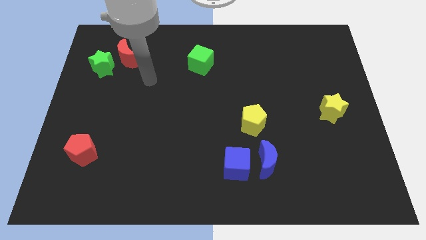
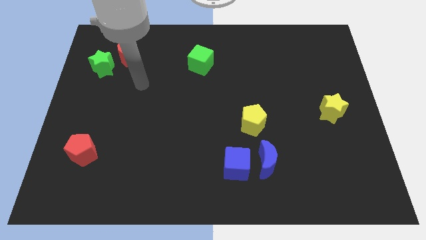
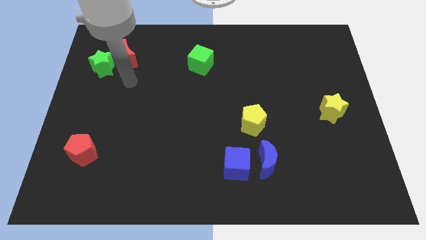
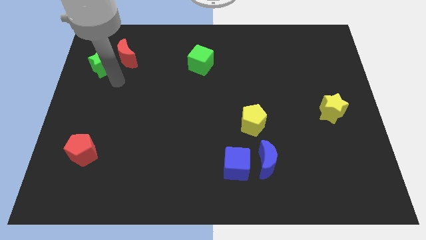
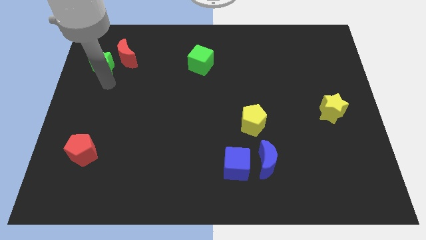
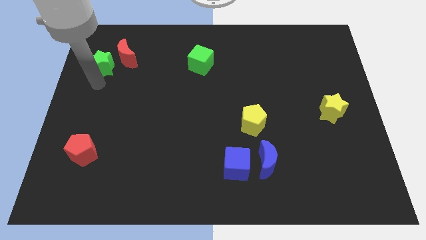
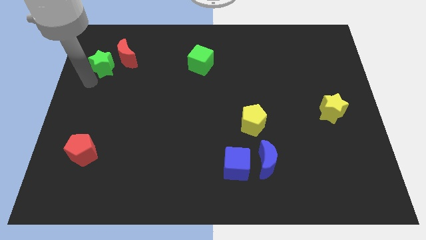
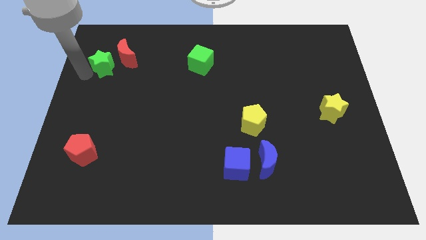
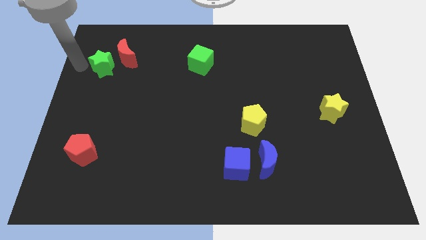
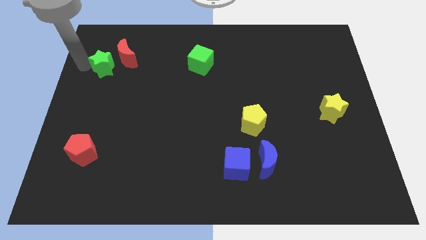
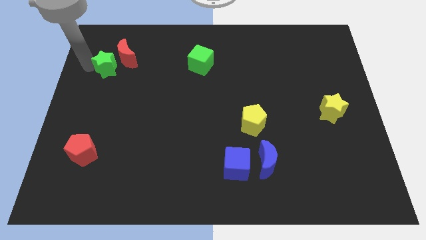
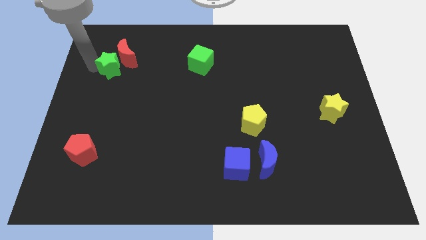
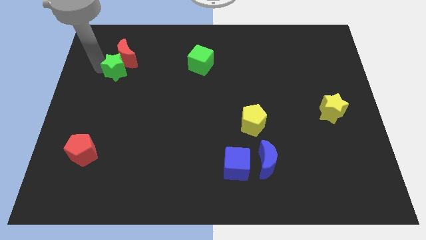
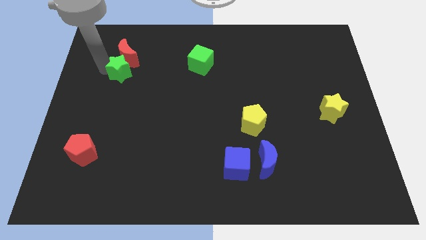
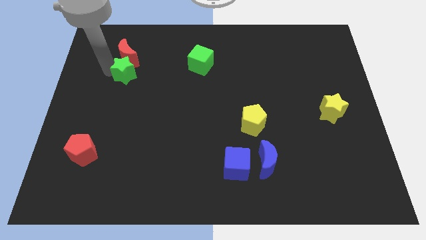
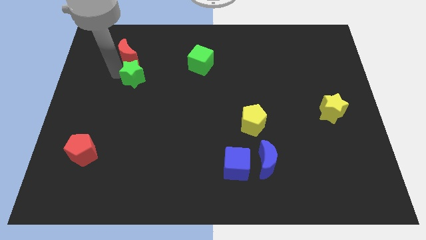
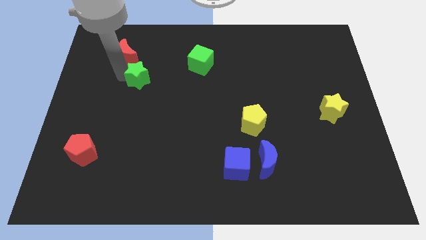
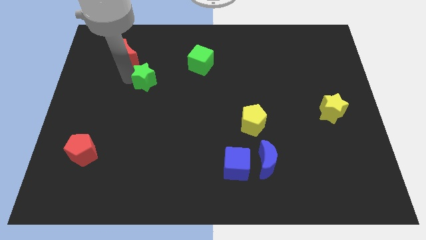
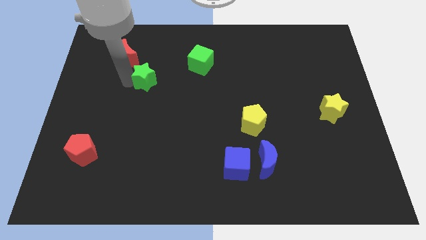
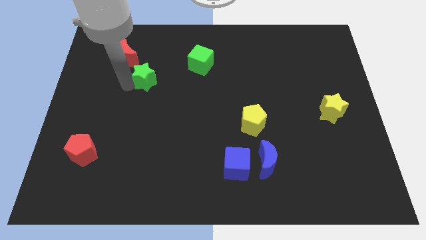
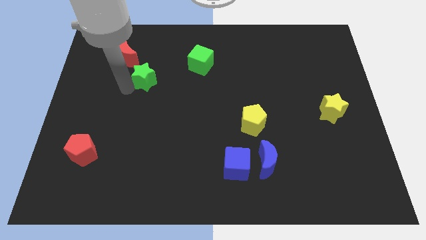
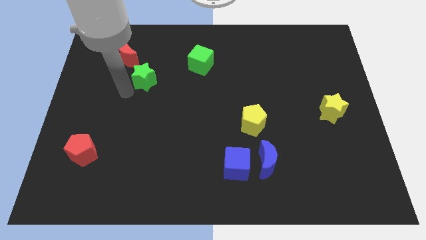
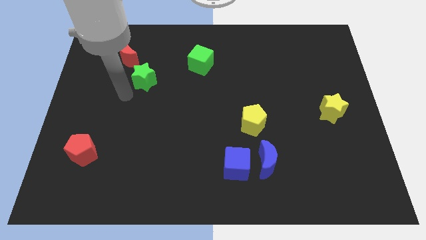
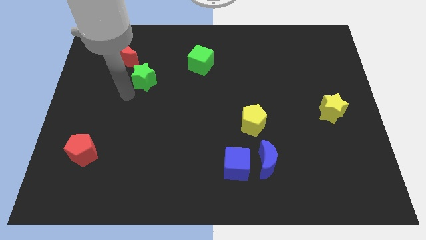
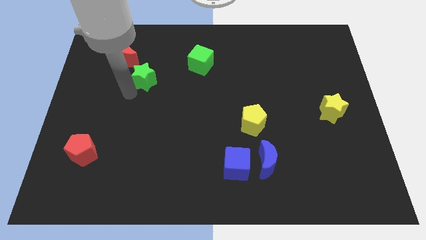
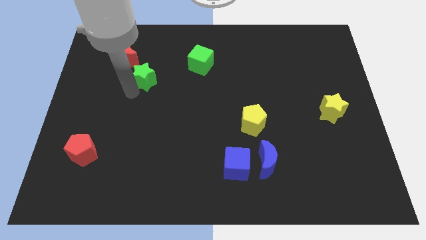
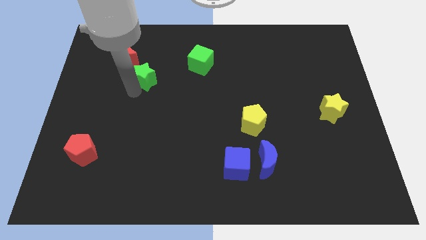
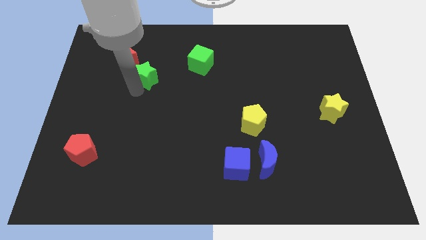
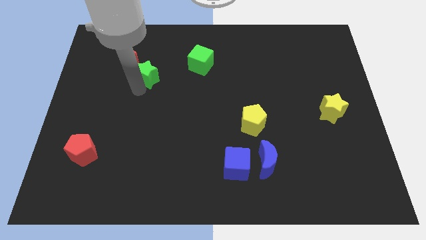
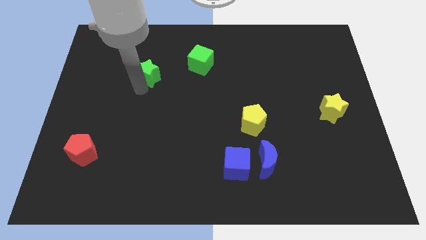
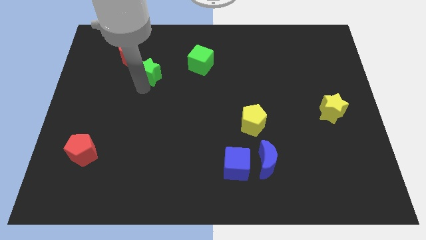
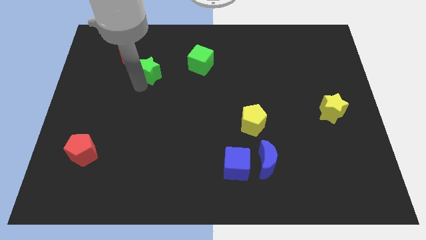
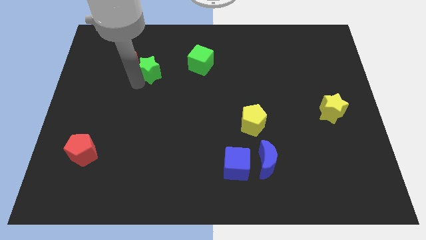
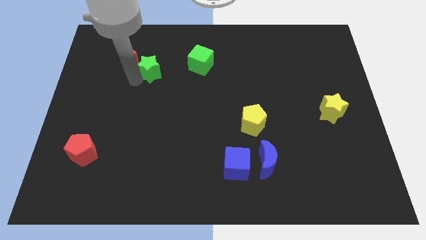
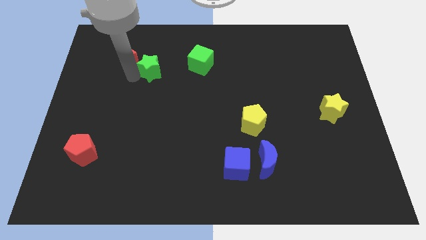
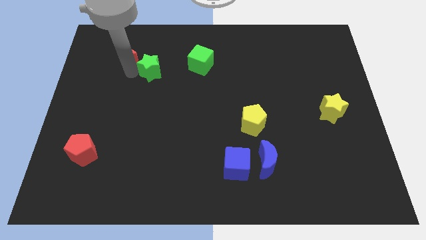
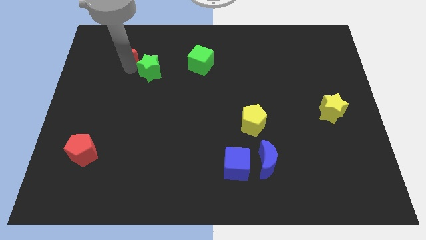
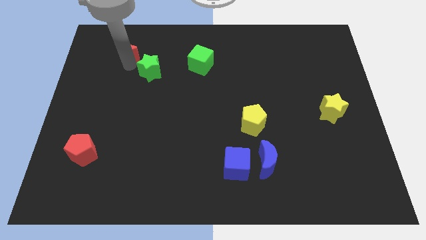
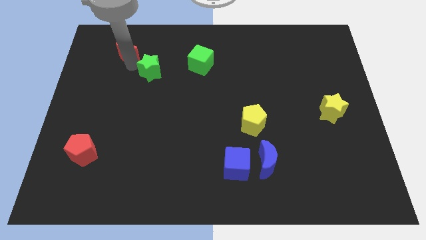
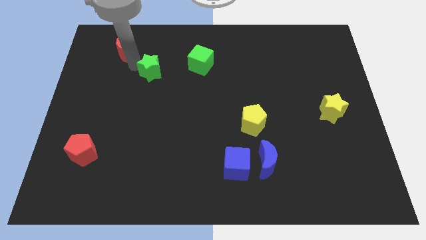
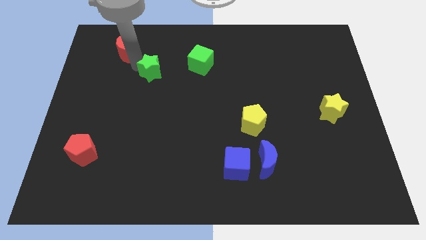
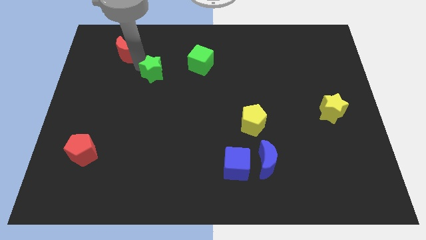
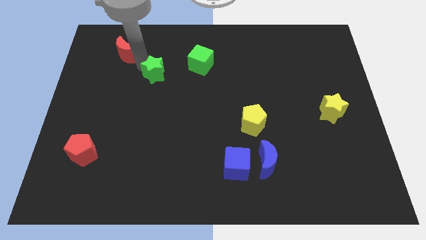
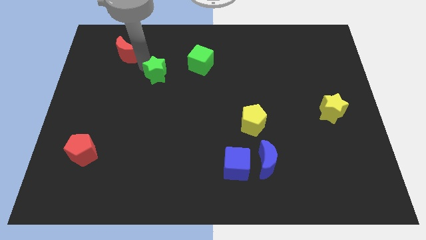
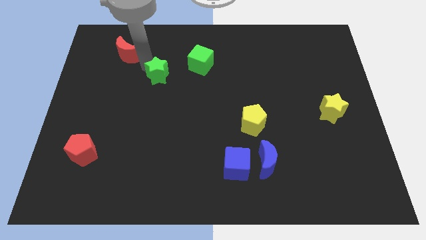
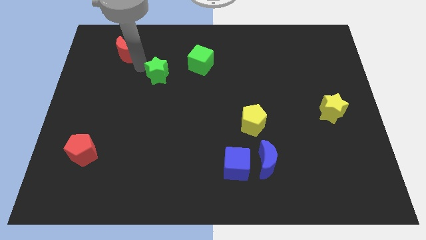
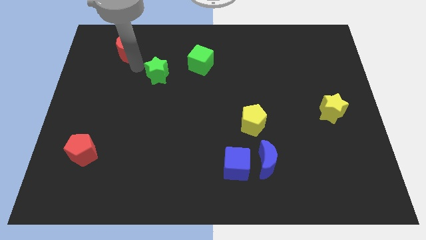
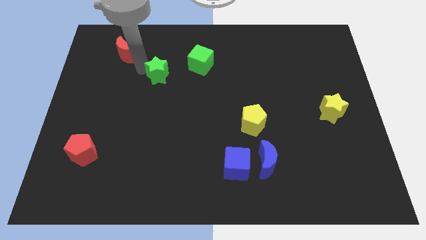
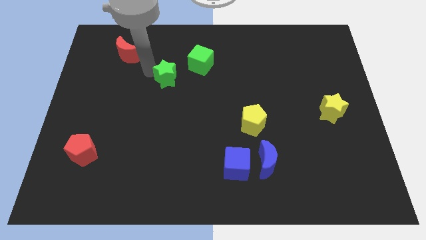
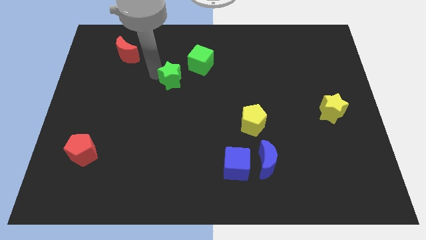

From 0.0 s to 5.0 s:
move the green star to the middle of the board

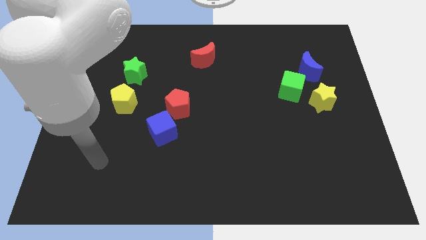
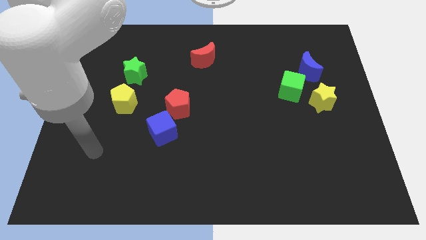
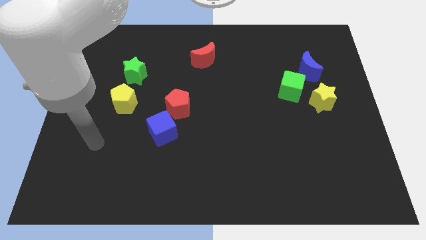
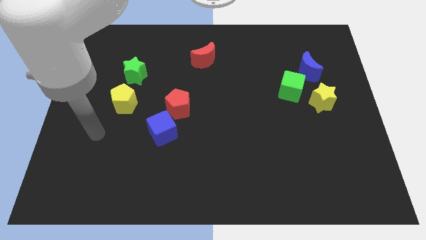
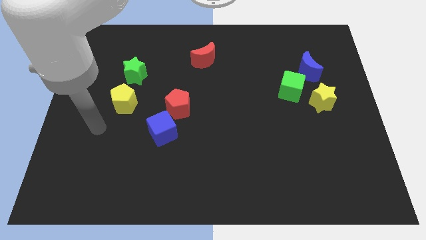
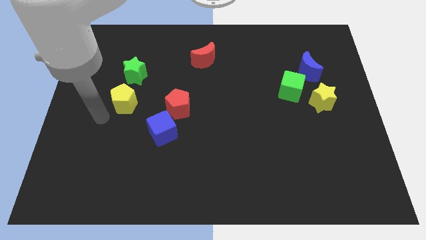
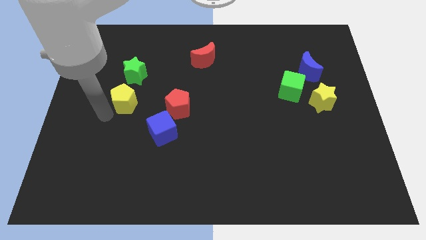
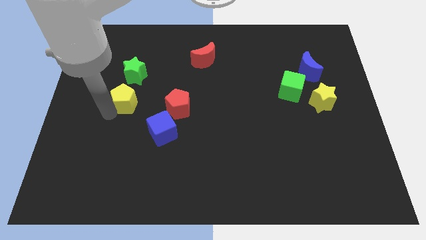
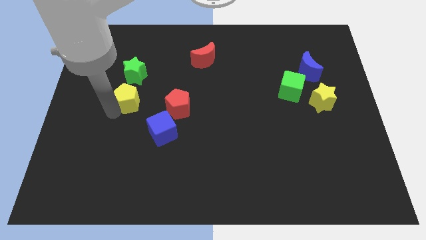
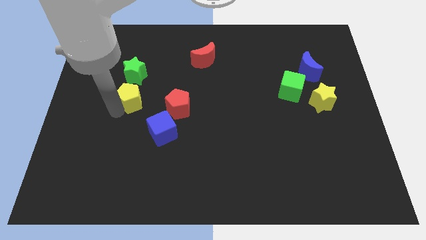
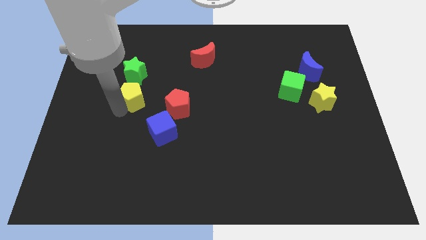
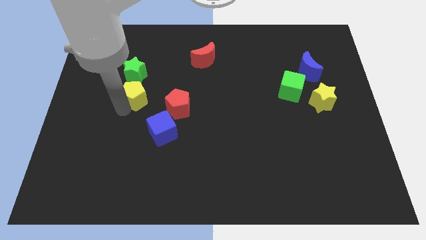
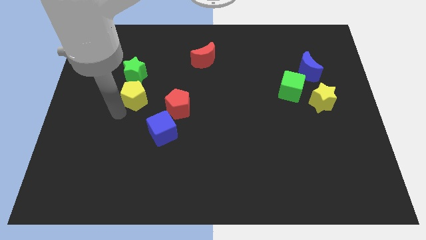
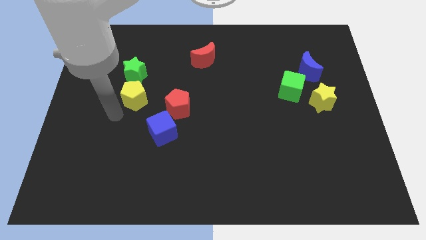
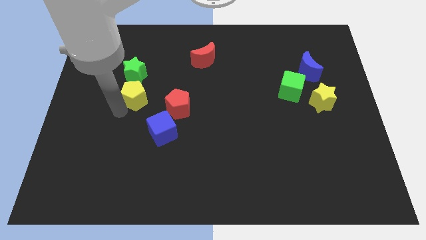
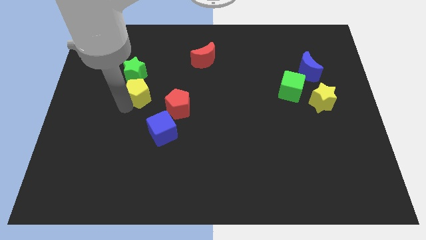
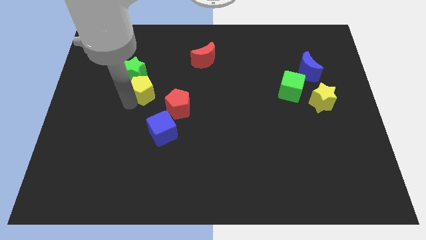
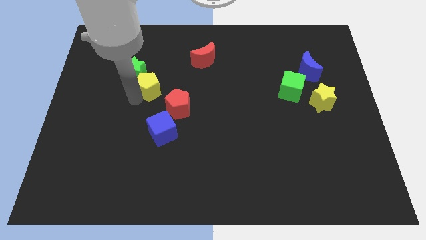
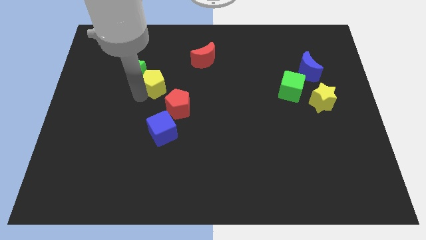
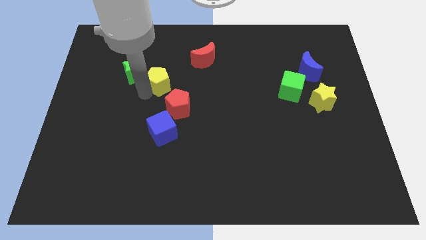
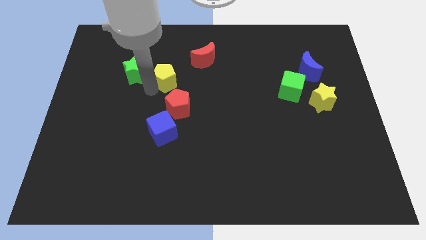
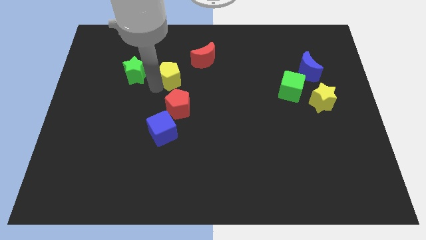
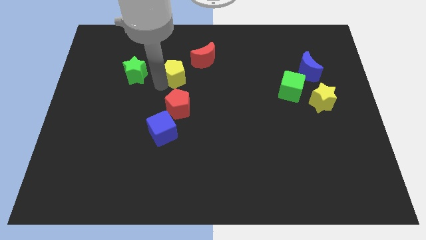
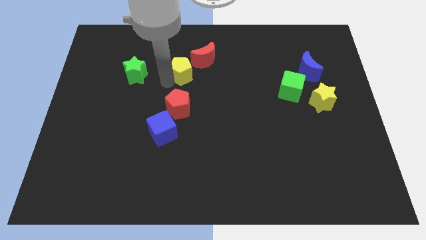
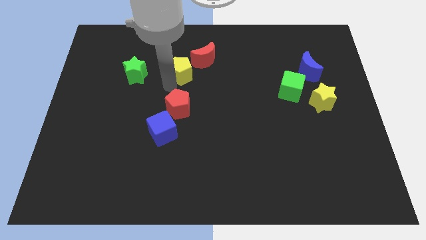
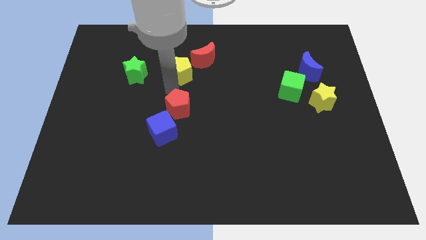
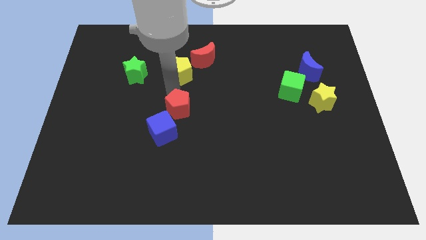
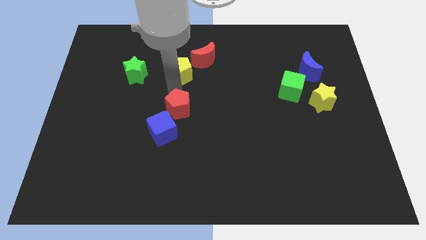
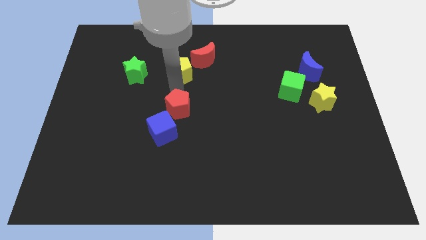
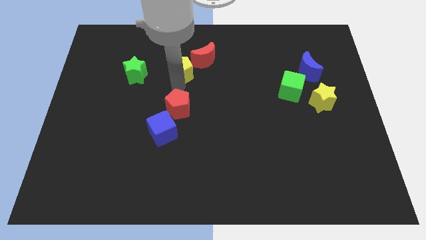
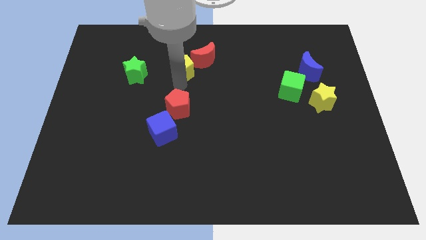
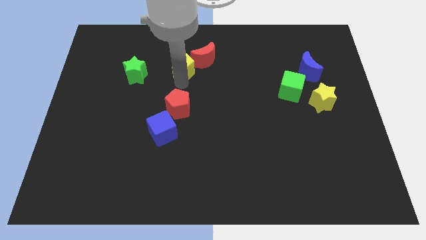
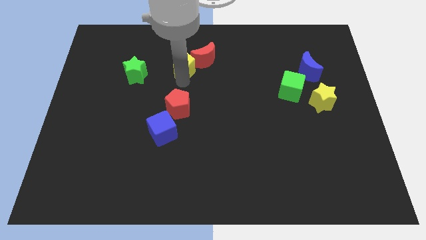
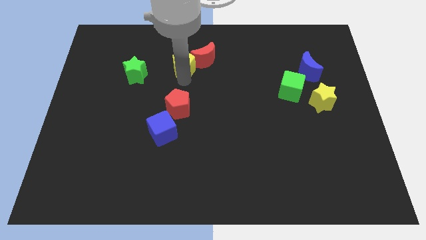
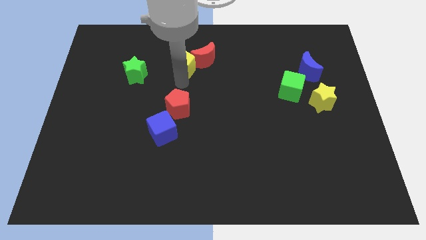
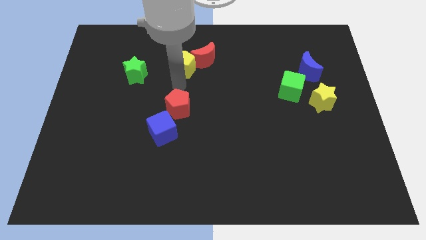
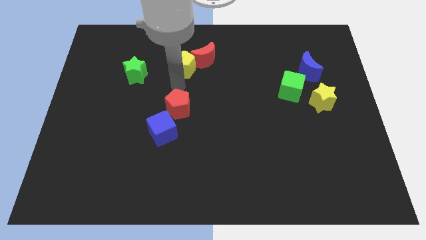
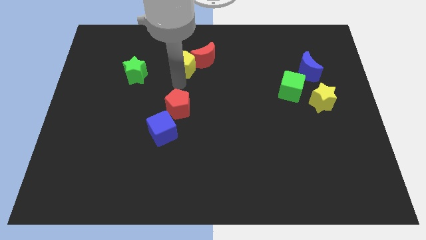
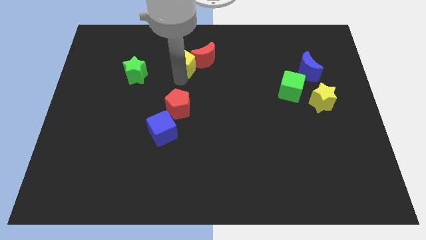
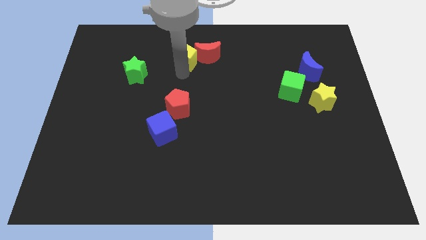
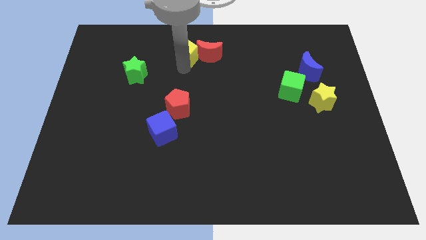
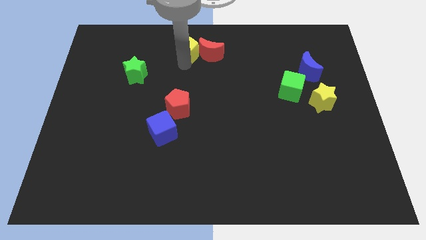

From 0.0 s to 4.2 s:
slide the yellow pentagon to the top
